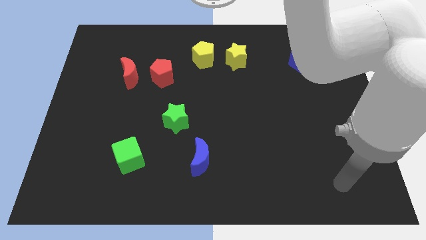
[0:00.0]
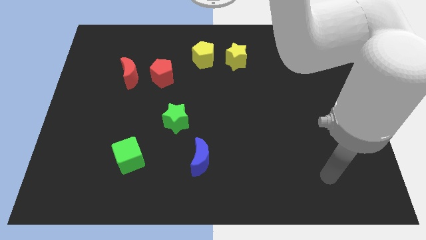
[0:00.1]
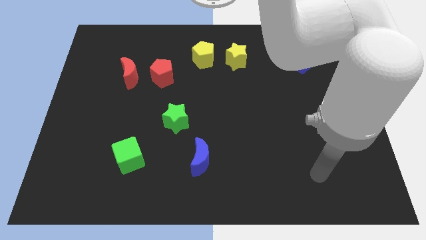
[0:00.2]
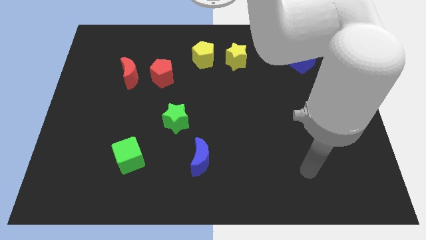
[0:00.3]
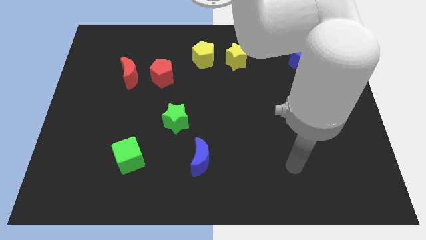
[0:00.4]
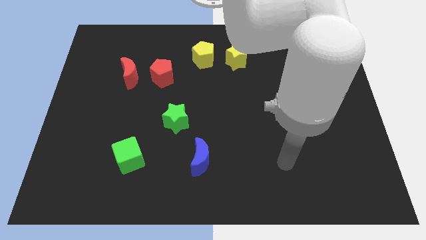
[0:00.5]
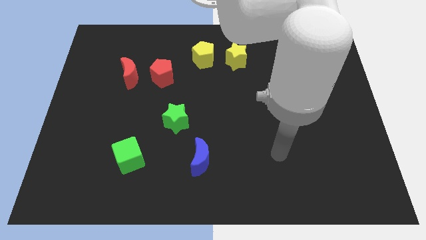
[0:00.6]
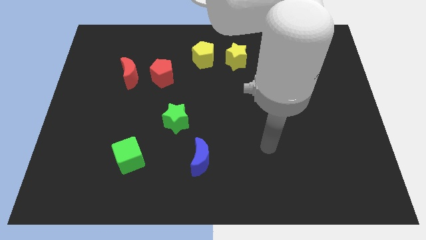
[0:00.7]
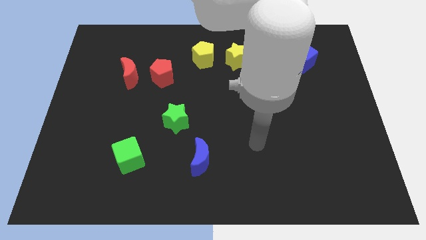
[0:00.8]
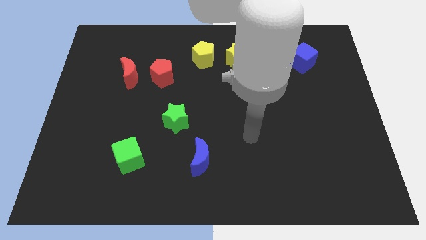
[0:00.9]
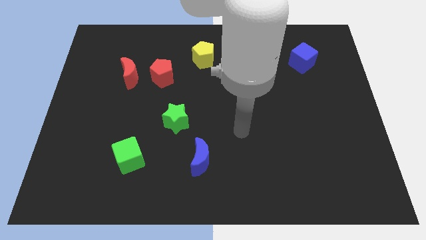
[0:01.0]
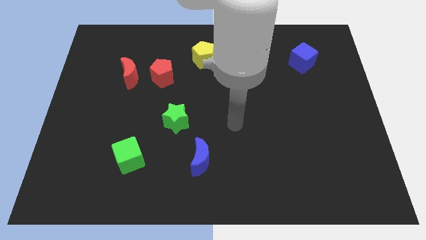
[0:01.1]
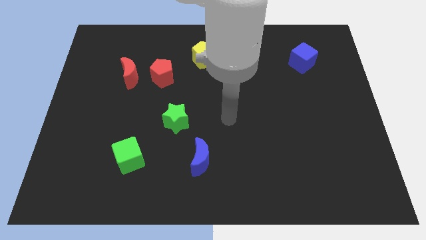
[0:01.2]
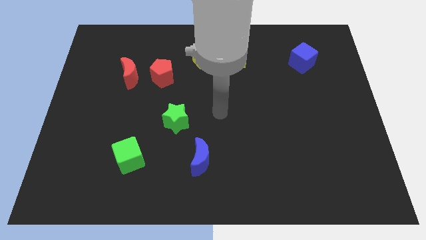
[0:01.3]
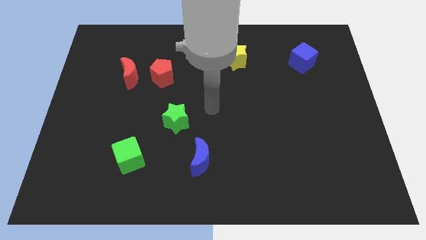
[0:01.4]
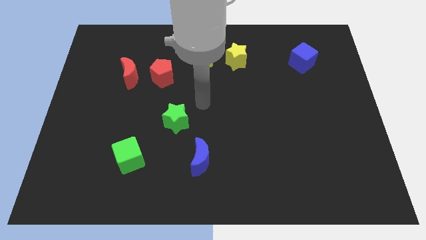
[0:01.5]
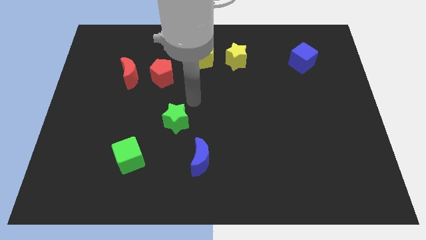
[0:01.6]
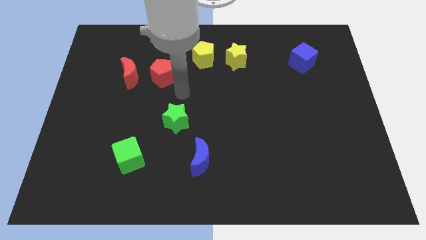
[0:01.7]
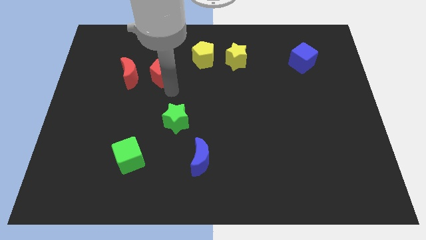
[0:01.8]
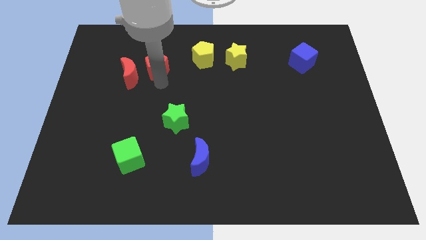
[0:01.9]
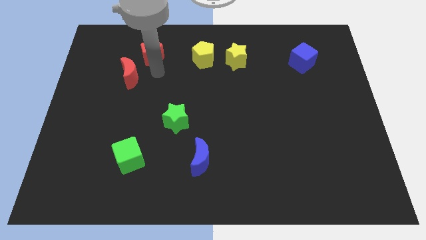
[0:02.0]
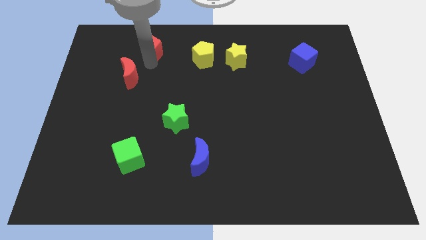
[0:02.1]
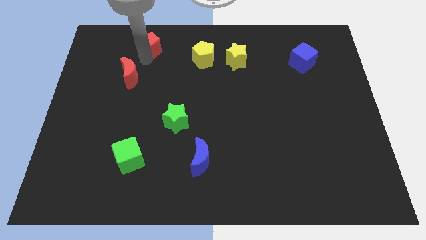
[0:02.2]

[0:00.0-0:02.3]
separate the red moon from the red pentagon

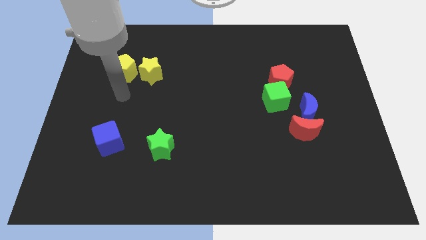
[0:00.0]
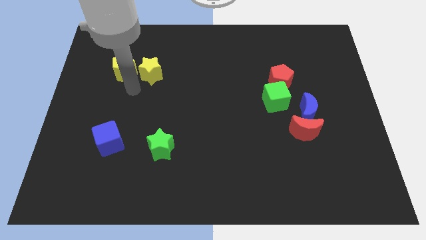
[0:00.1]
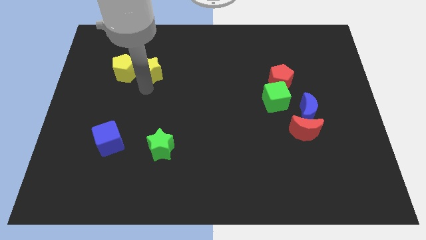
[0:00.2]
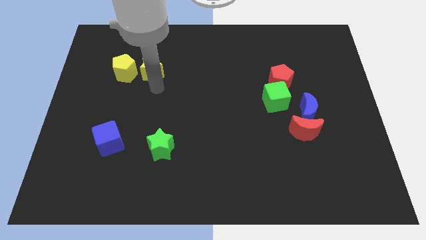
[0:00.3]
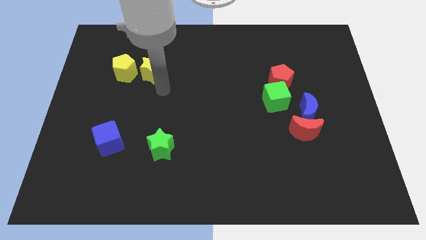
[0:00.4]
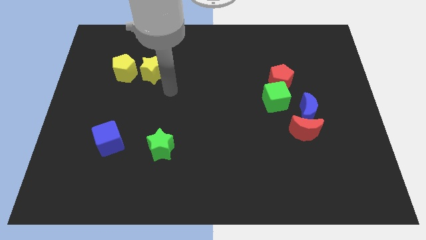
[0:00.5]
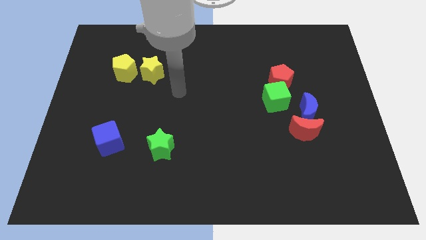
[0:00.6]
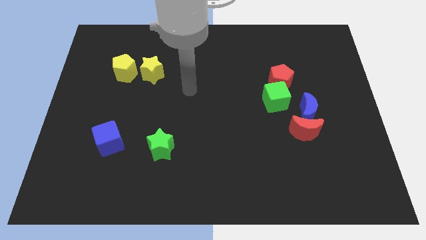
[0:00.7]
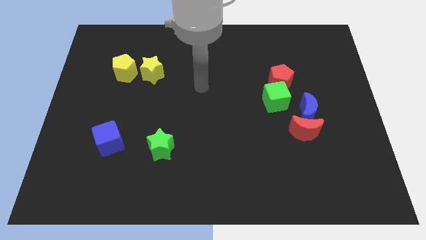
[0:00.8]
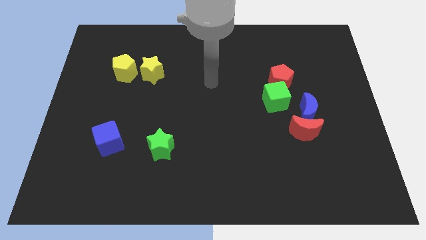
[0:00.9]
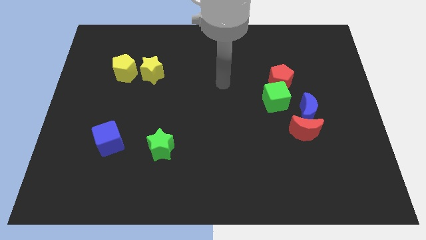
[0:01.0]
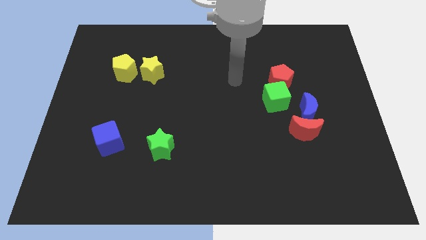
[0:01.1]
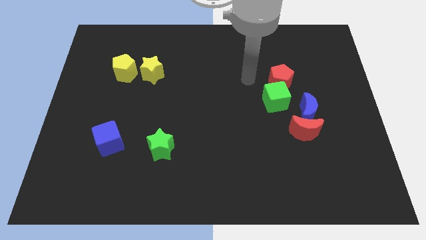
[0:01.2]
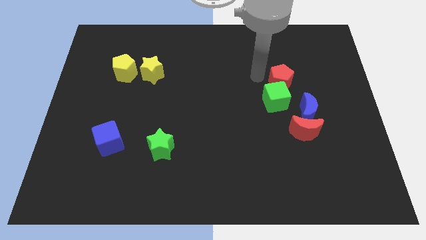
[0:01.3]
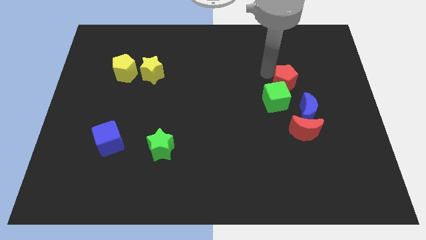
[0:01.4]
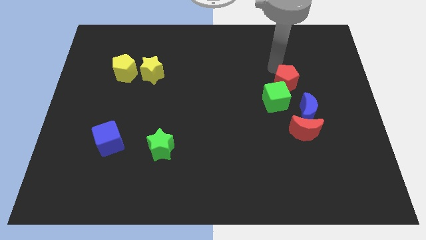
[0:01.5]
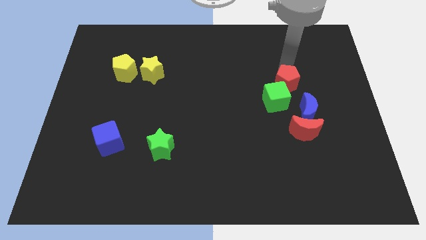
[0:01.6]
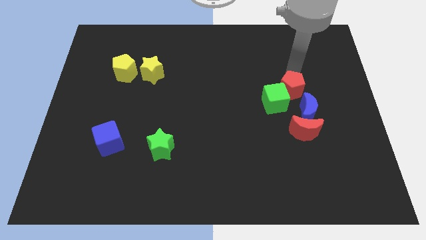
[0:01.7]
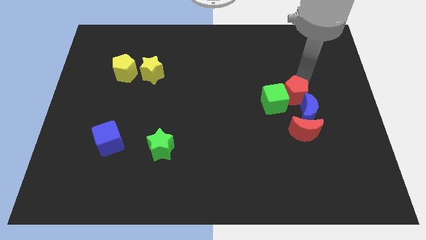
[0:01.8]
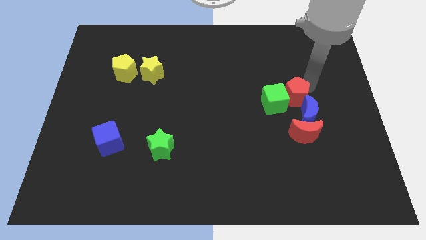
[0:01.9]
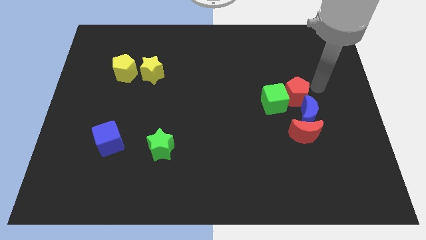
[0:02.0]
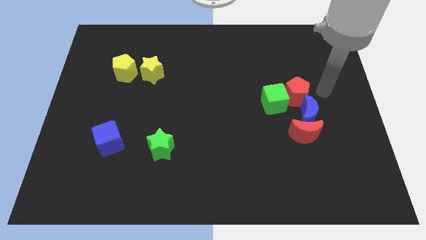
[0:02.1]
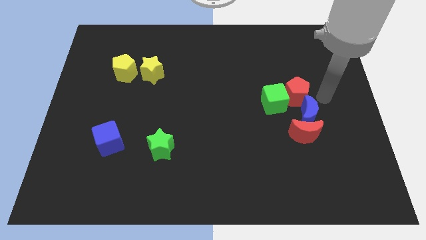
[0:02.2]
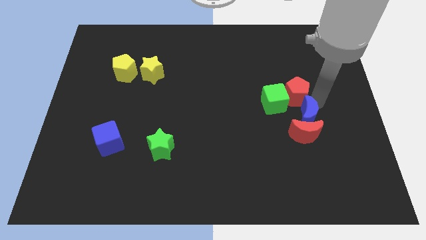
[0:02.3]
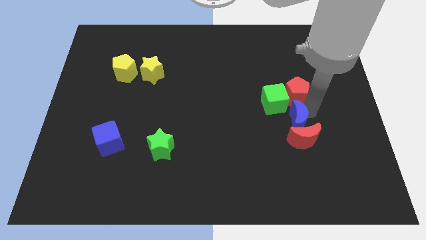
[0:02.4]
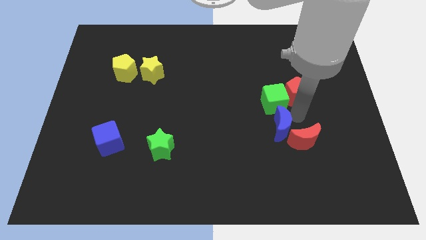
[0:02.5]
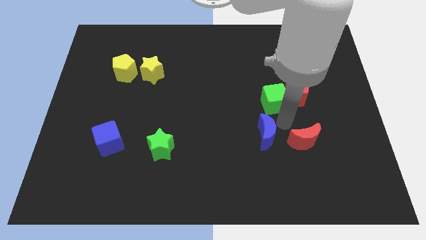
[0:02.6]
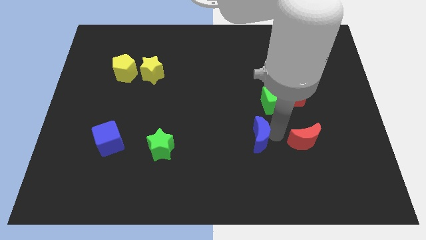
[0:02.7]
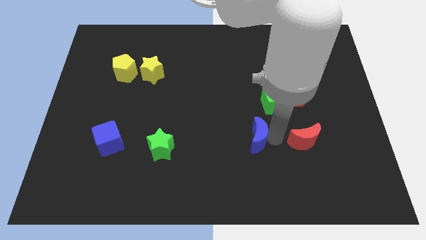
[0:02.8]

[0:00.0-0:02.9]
move the red moon away from the blue moon

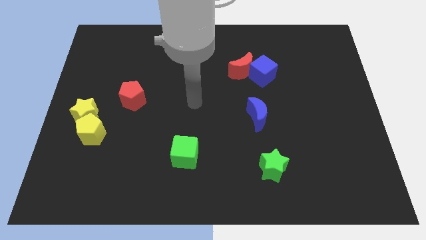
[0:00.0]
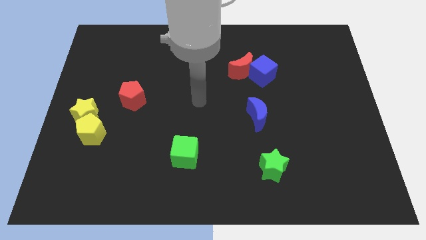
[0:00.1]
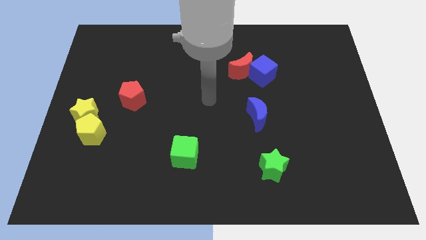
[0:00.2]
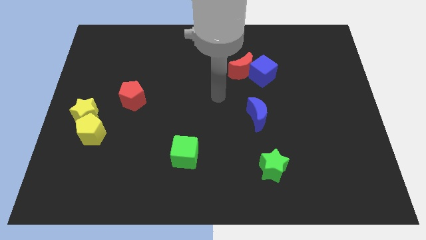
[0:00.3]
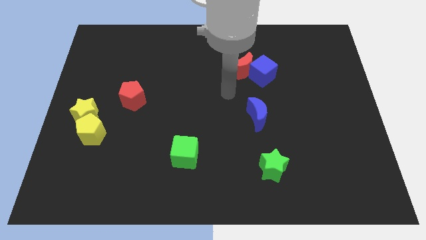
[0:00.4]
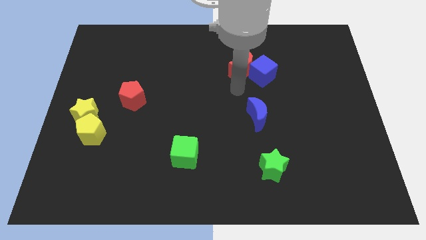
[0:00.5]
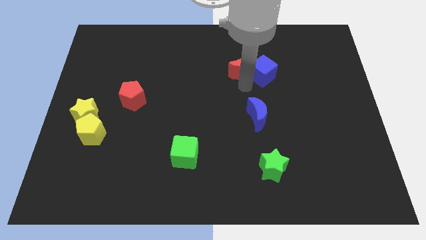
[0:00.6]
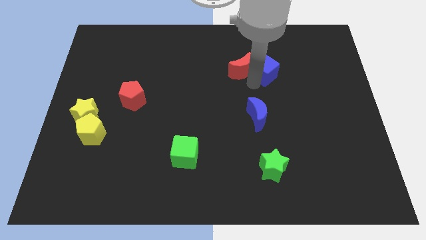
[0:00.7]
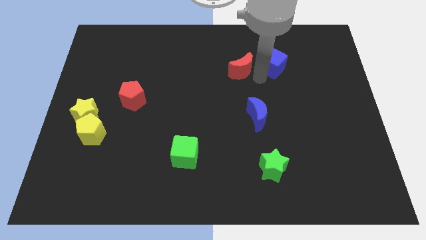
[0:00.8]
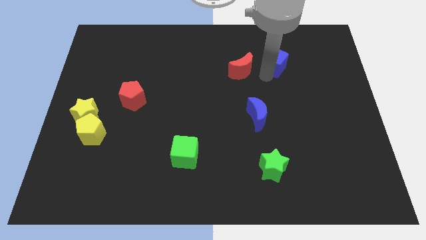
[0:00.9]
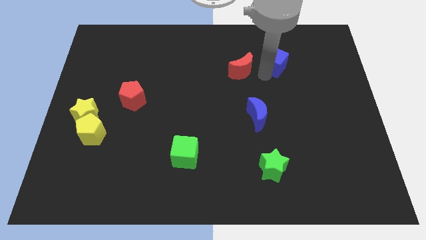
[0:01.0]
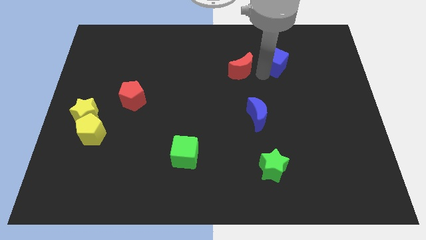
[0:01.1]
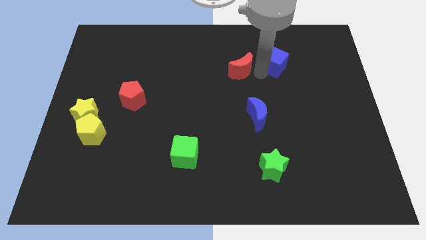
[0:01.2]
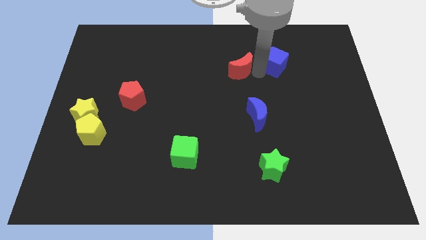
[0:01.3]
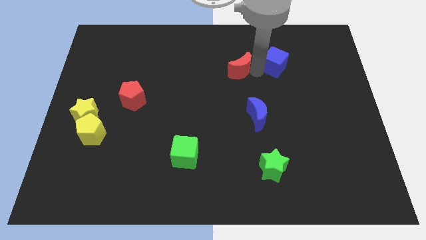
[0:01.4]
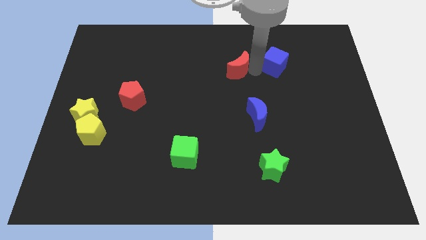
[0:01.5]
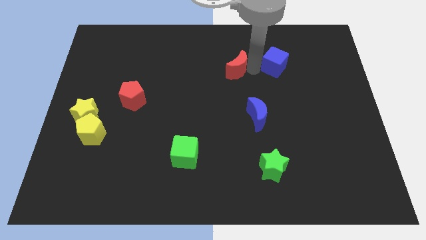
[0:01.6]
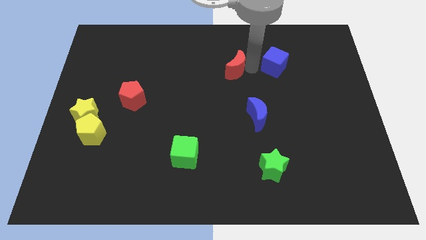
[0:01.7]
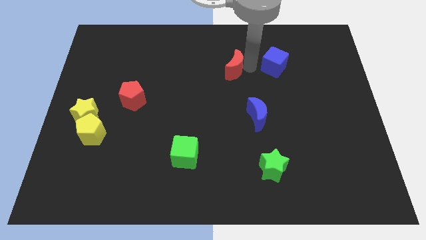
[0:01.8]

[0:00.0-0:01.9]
pull the red moon apart from the blue cube

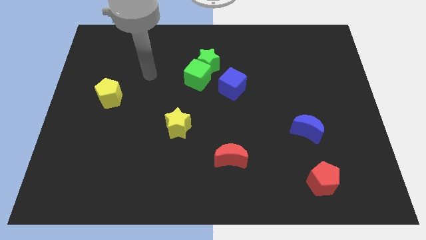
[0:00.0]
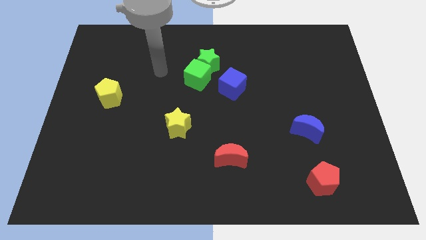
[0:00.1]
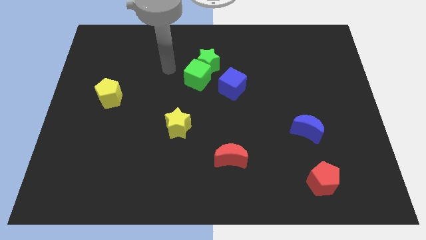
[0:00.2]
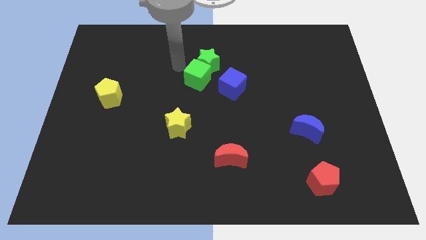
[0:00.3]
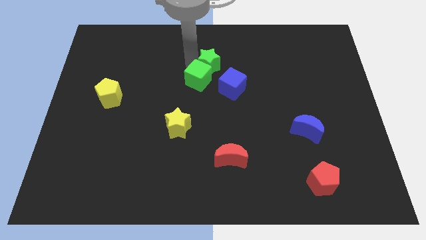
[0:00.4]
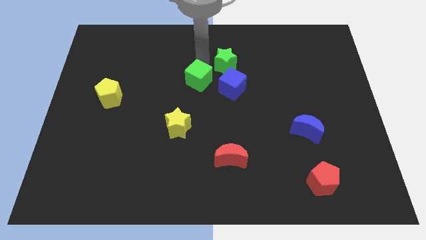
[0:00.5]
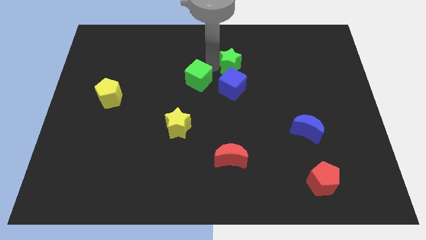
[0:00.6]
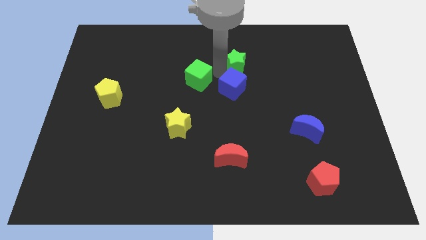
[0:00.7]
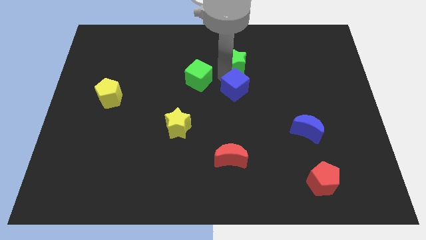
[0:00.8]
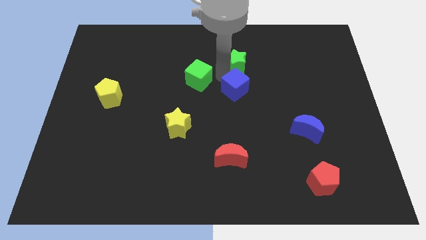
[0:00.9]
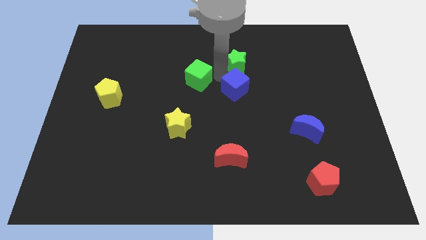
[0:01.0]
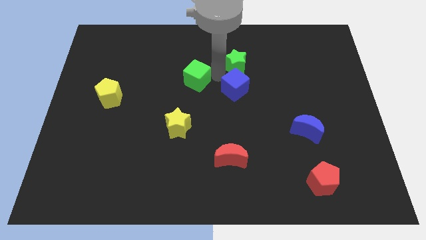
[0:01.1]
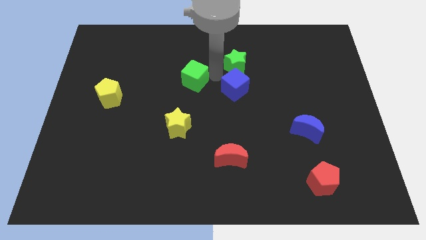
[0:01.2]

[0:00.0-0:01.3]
move the green cube away from the green star and blue cube

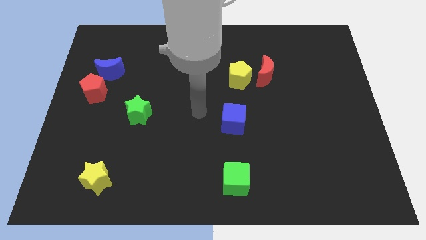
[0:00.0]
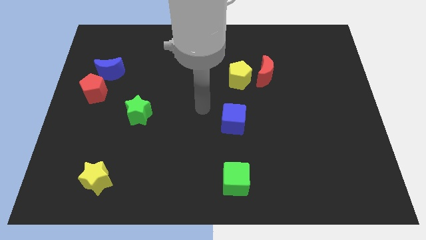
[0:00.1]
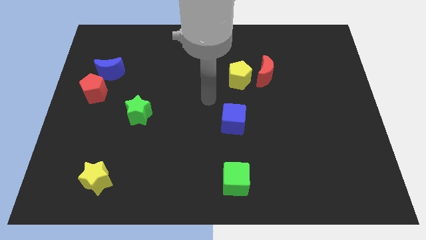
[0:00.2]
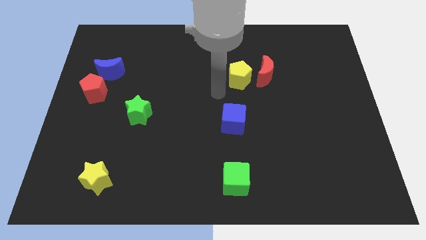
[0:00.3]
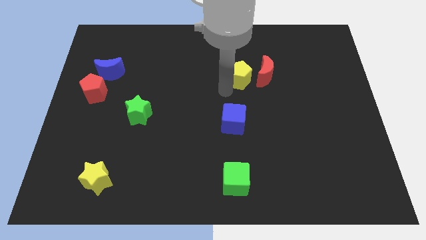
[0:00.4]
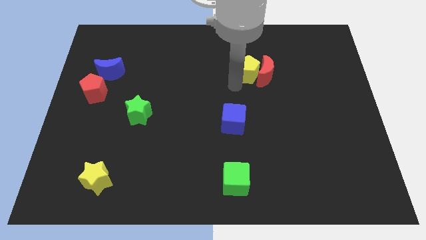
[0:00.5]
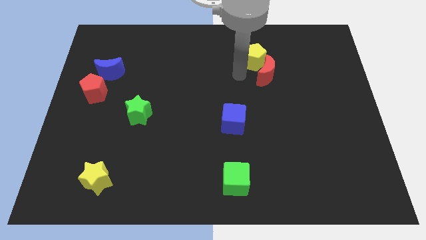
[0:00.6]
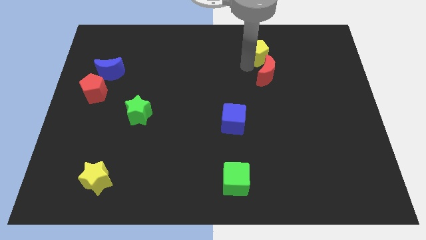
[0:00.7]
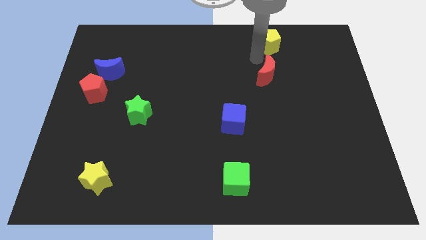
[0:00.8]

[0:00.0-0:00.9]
separate the red moon from the yellow pentagon

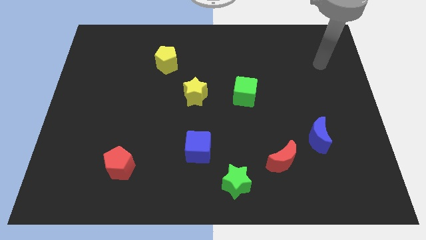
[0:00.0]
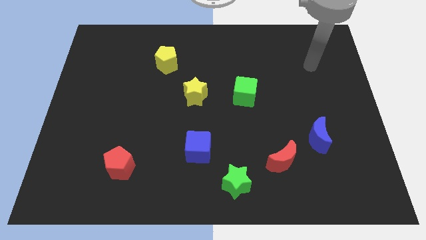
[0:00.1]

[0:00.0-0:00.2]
separate the red moon from the blue moon
